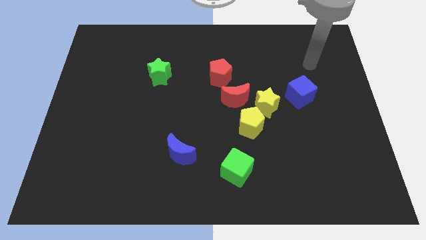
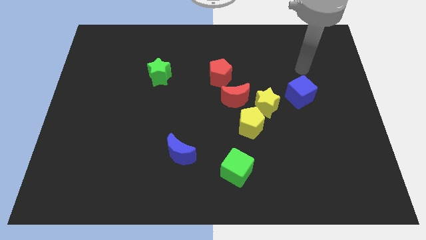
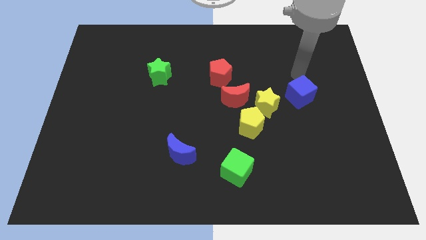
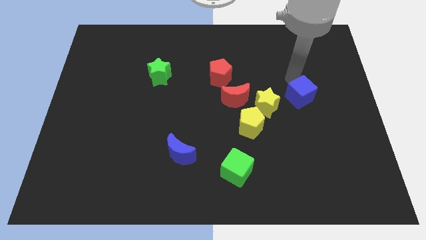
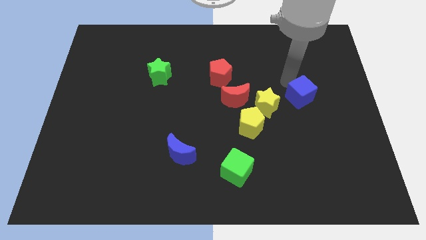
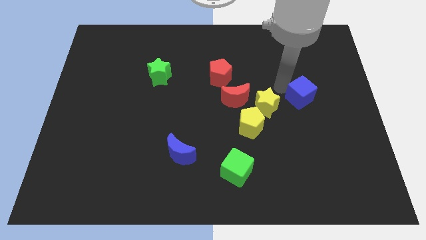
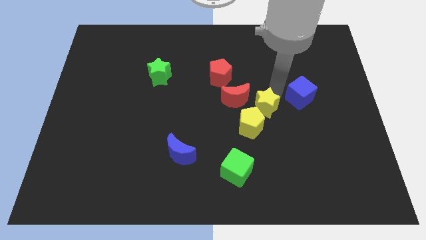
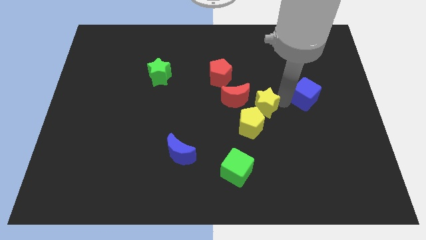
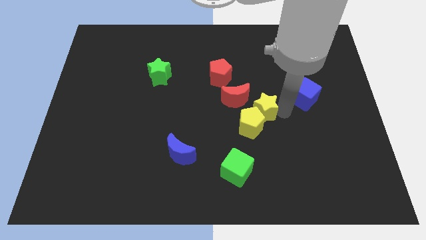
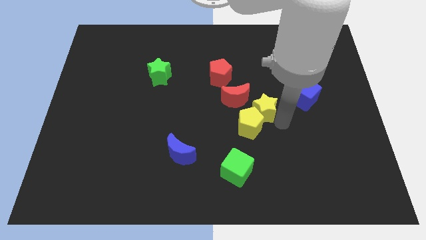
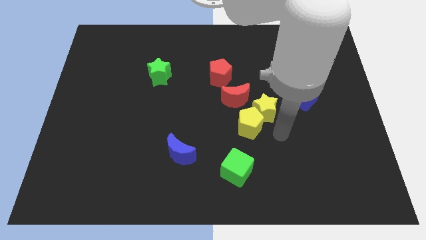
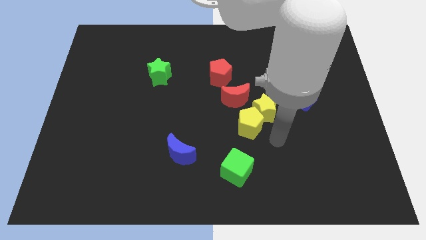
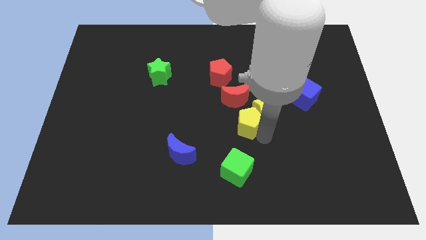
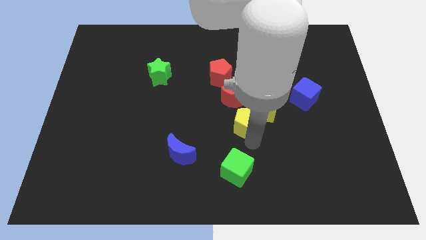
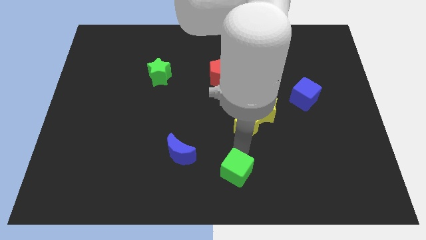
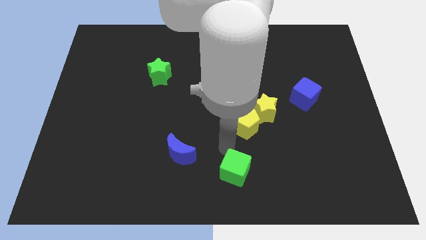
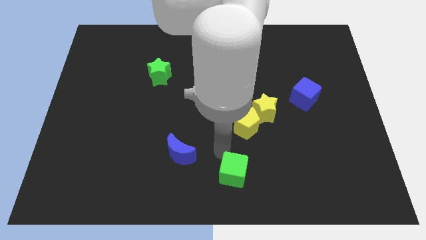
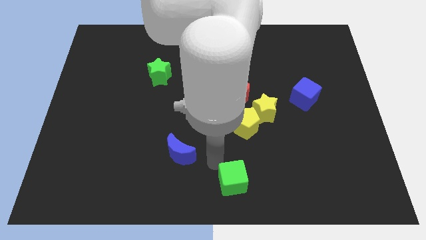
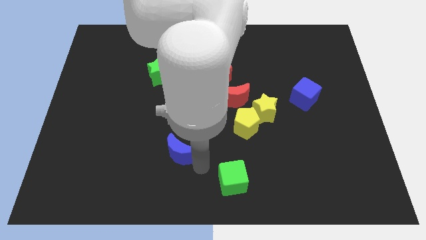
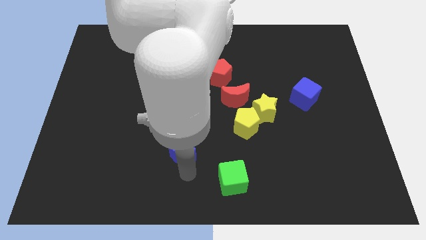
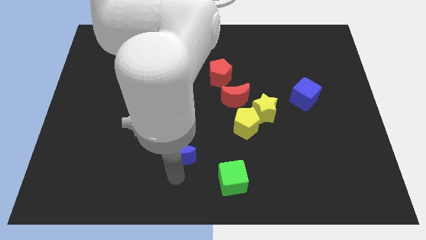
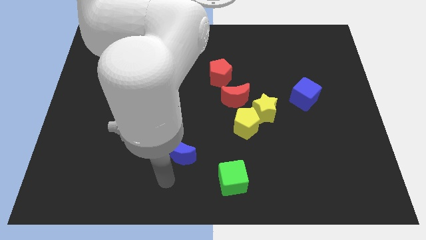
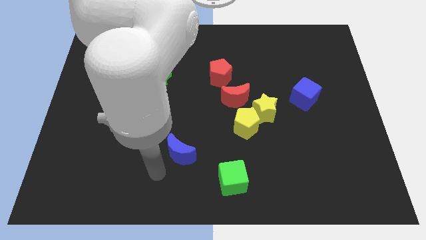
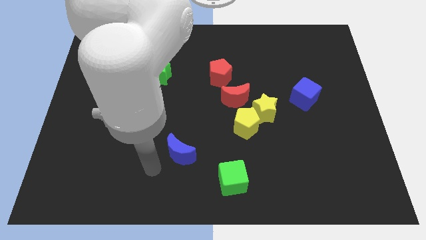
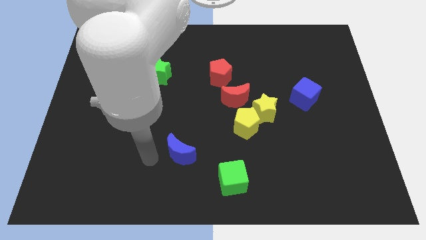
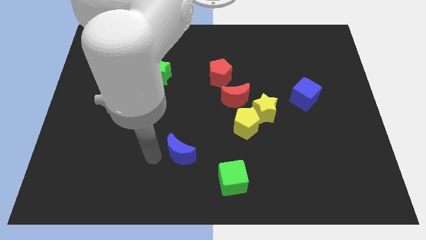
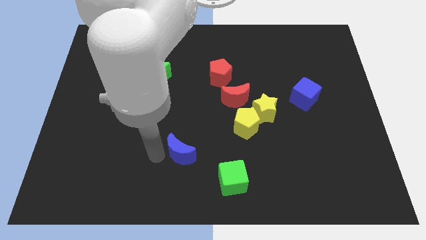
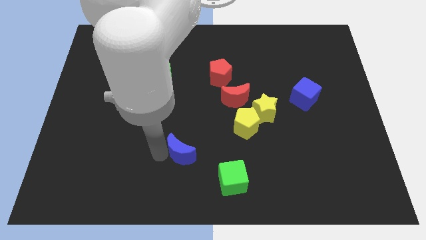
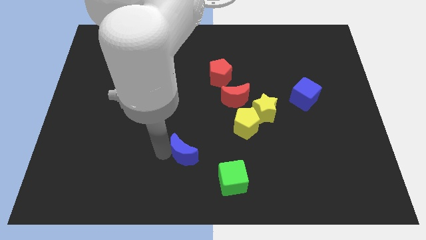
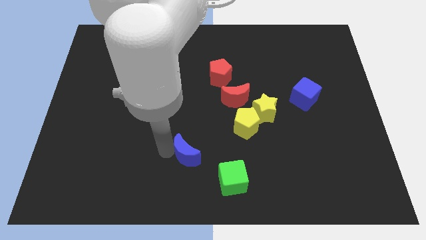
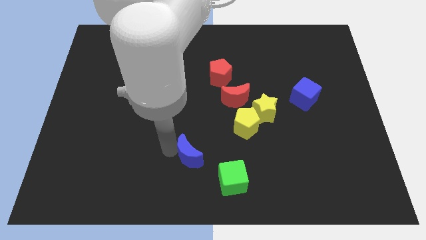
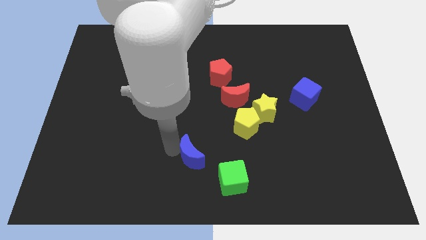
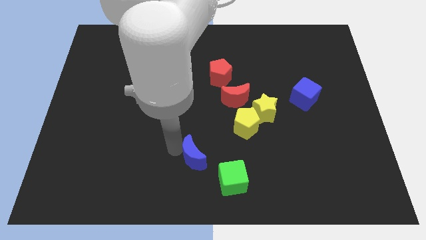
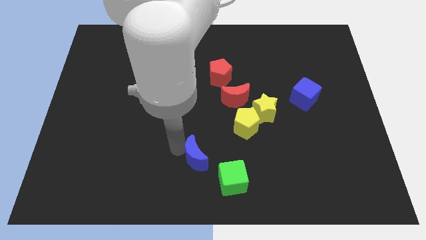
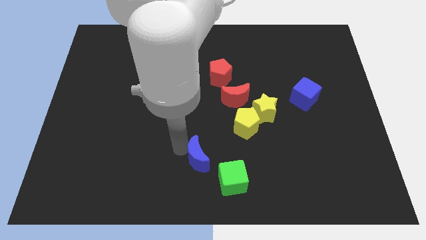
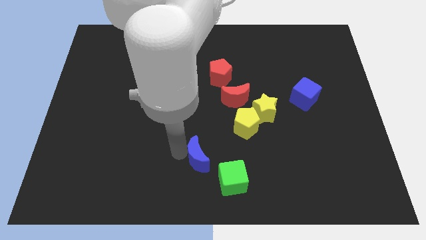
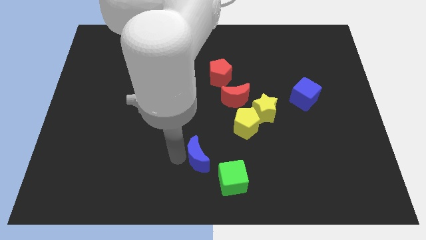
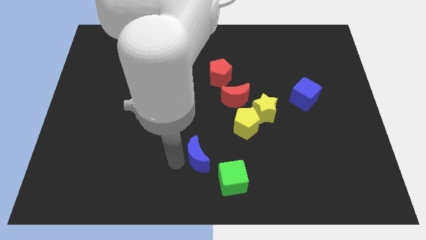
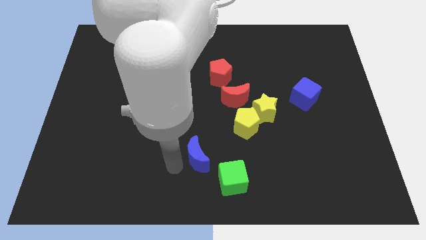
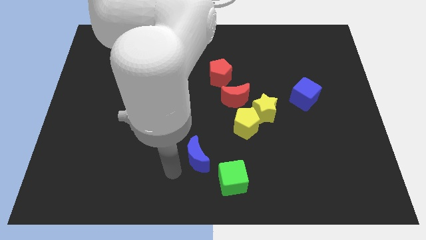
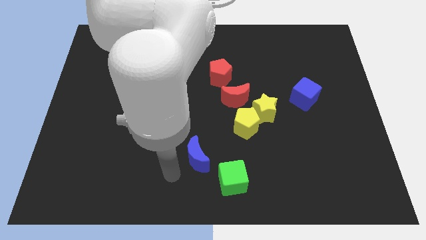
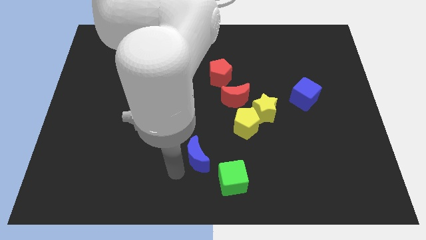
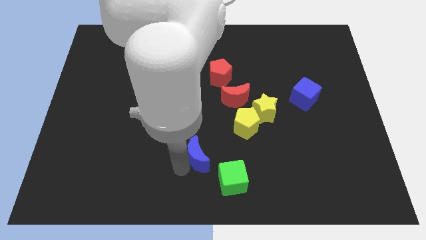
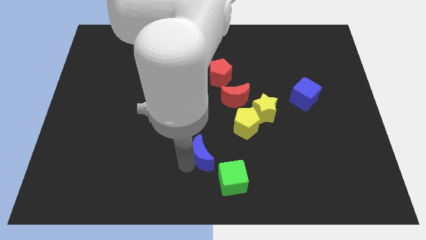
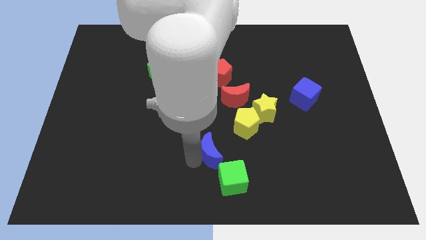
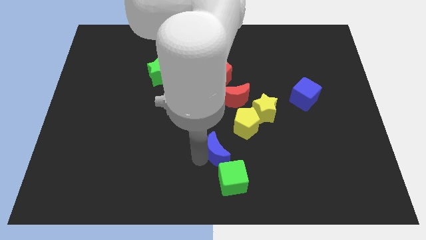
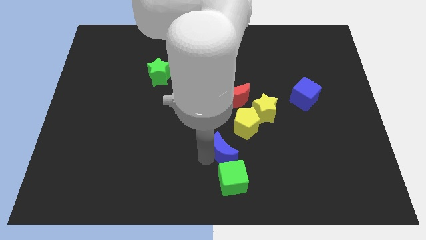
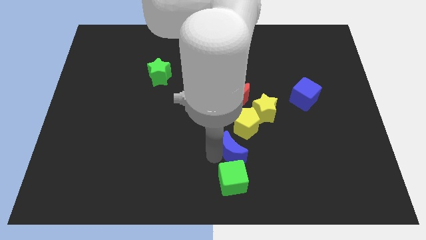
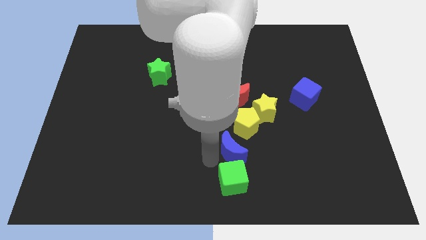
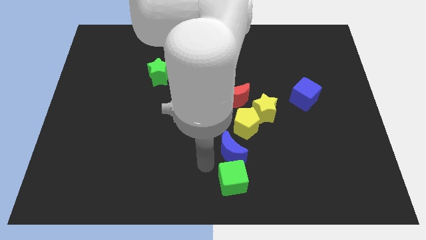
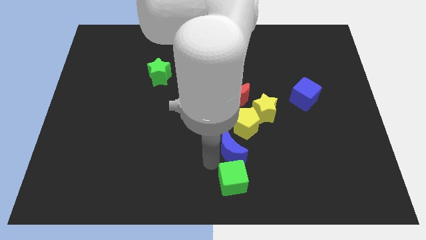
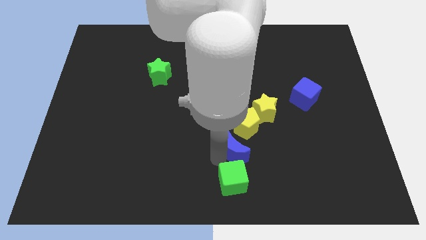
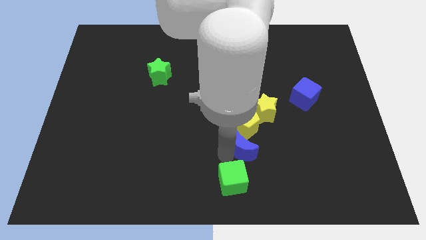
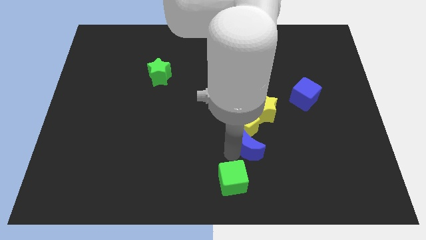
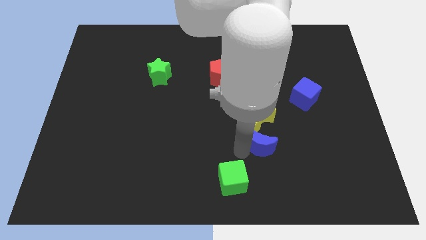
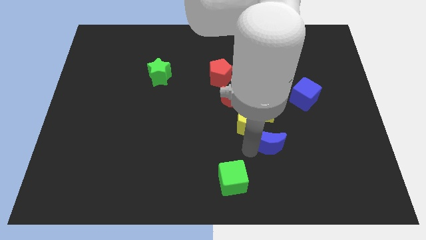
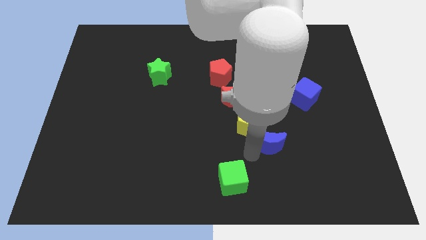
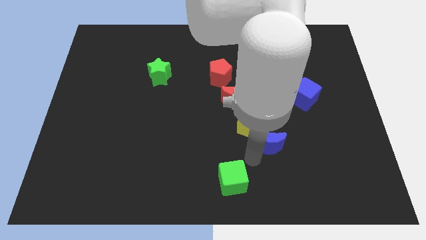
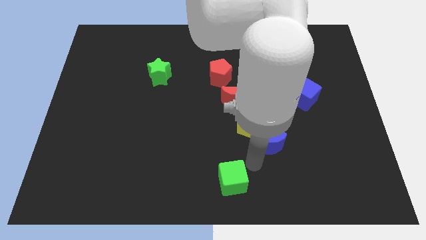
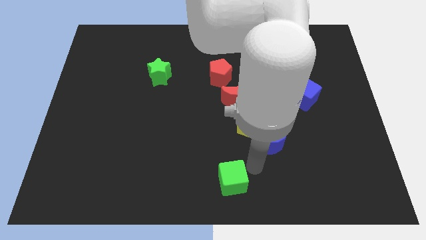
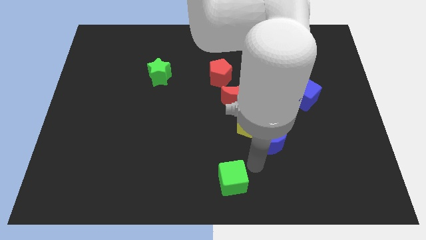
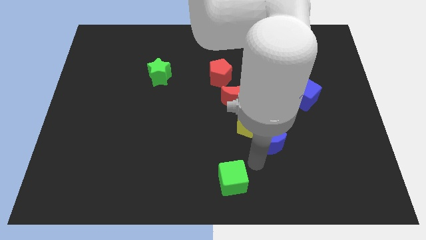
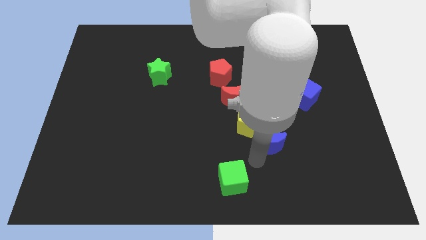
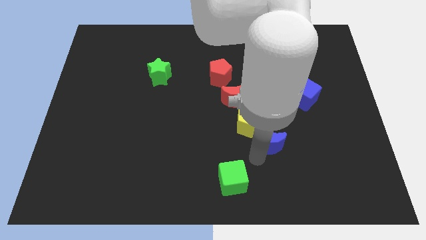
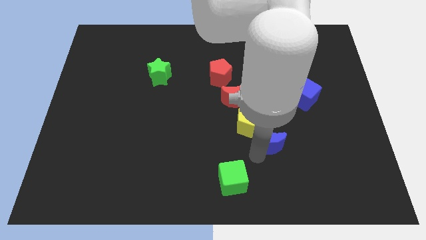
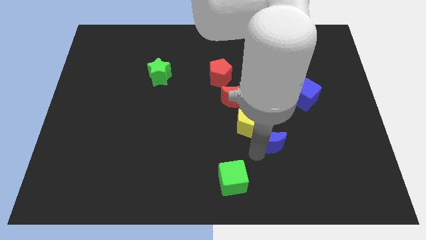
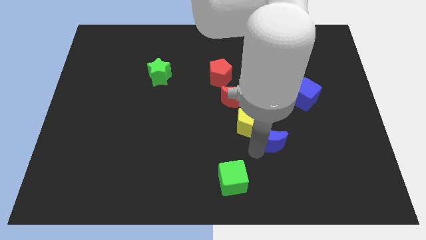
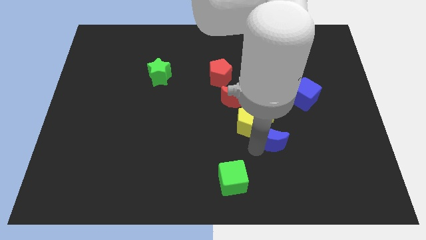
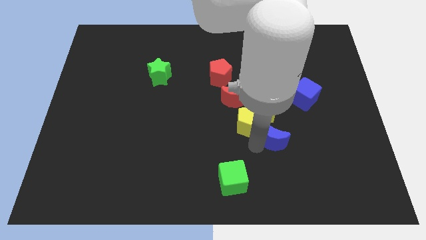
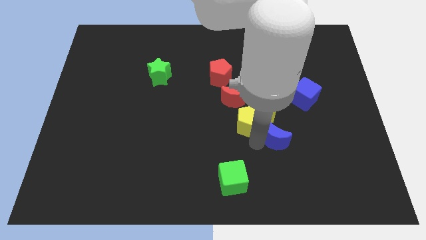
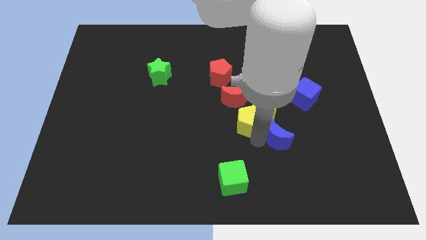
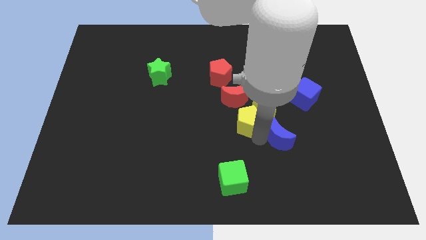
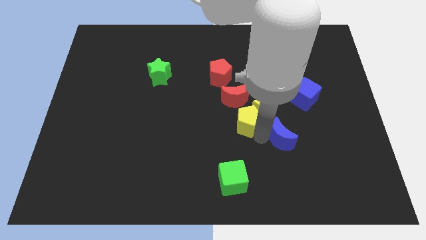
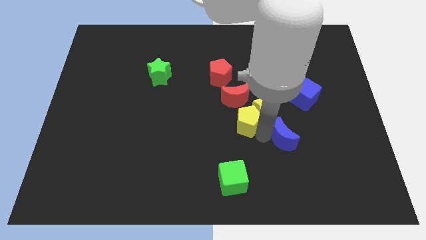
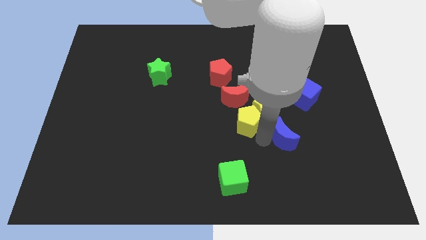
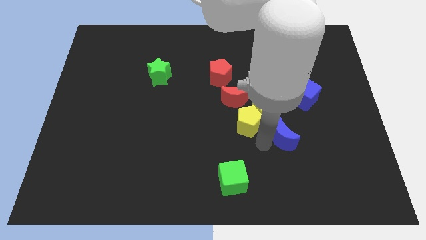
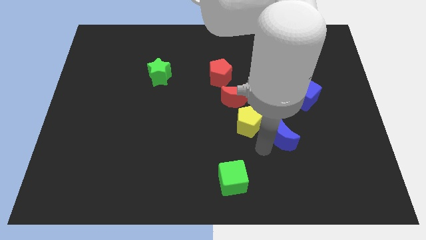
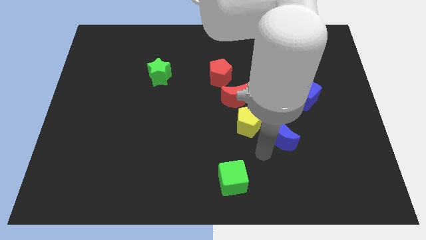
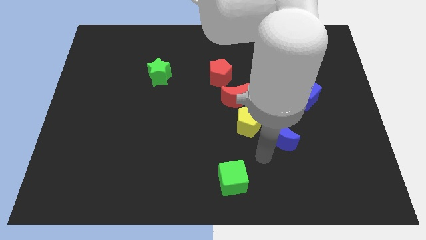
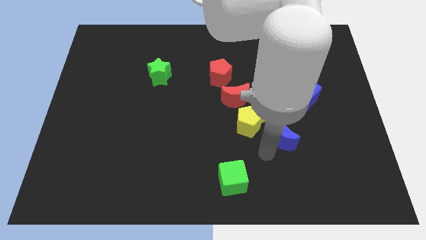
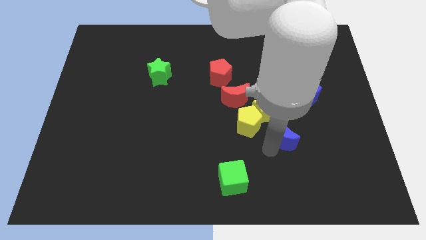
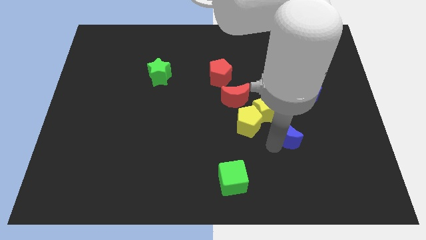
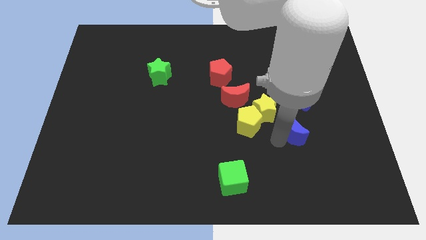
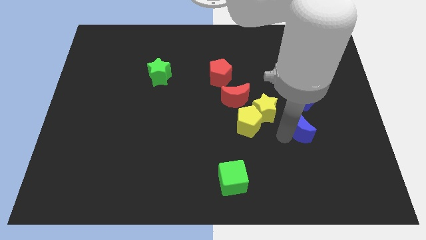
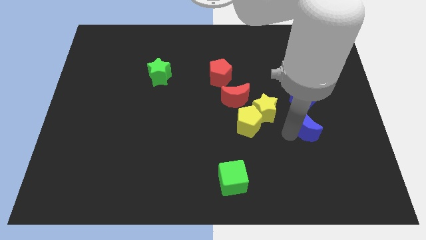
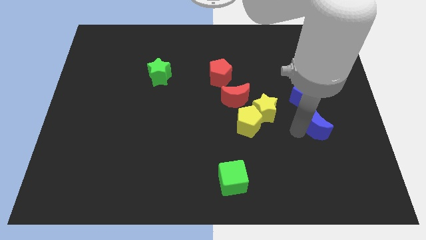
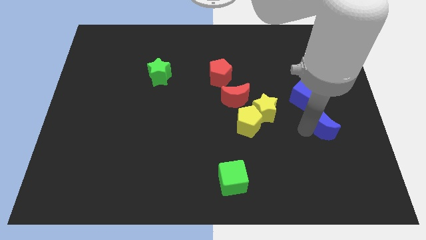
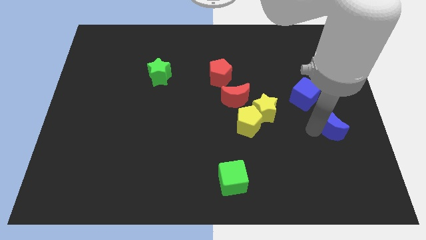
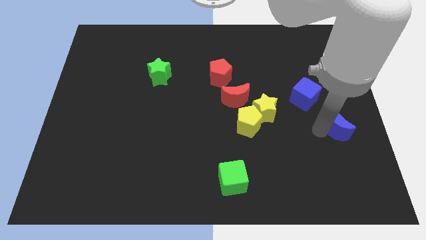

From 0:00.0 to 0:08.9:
slide the blue moon to the right side of the board
